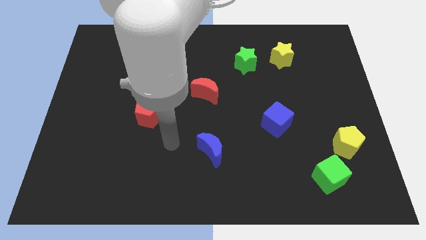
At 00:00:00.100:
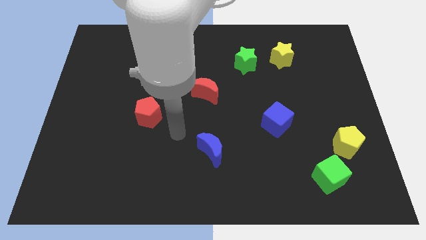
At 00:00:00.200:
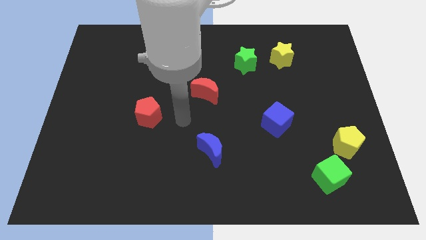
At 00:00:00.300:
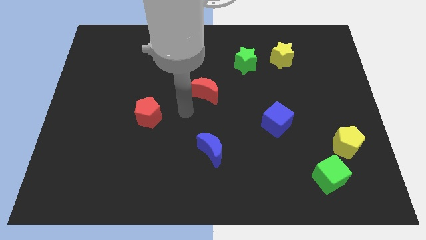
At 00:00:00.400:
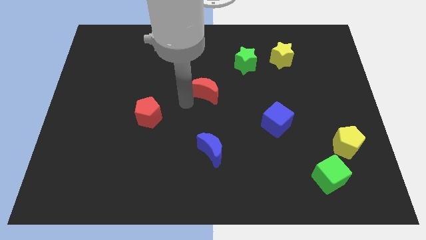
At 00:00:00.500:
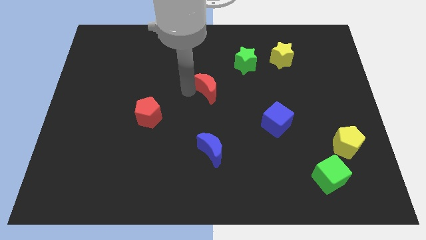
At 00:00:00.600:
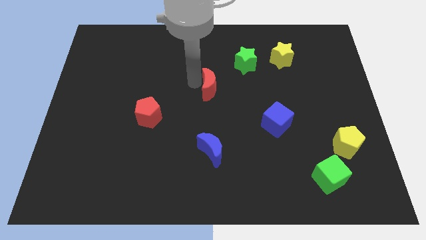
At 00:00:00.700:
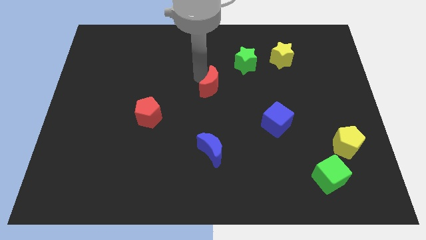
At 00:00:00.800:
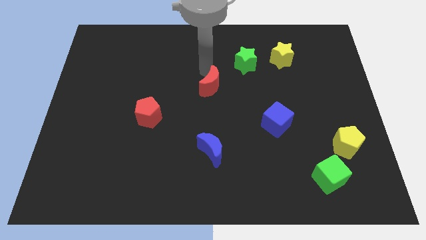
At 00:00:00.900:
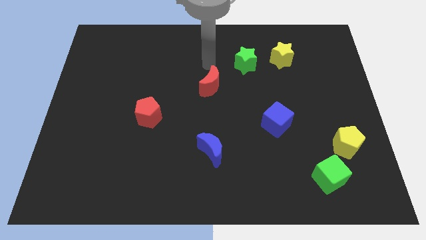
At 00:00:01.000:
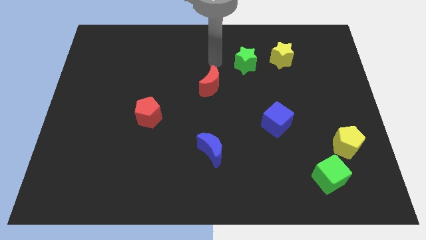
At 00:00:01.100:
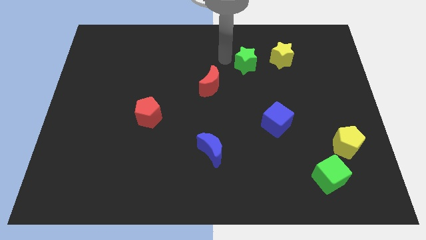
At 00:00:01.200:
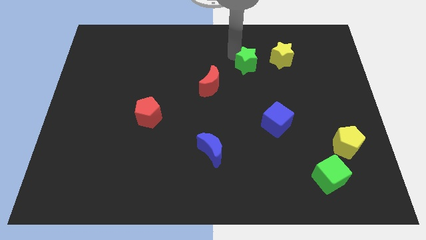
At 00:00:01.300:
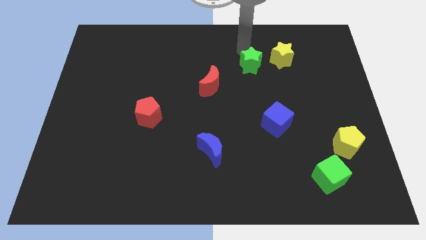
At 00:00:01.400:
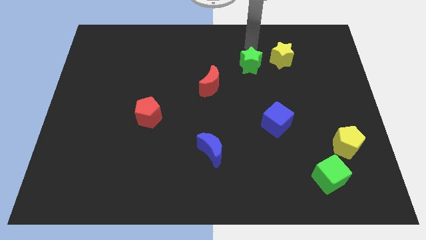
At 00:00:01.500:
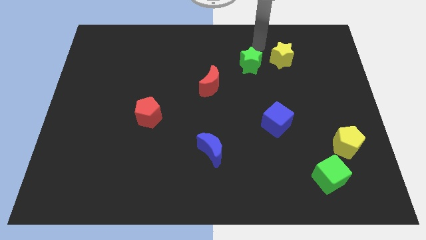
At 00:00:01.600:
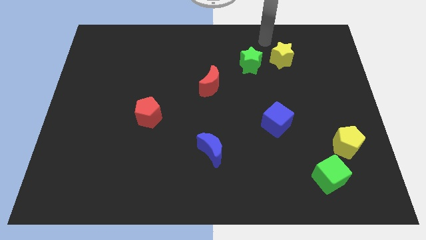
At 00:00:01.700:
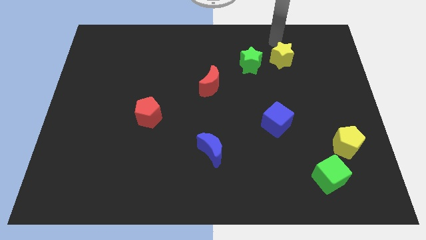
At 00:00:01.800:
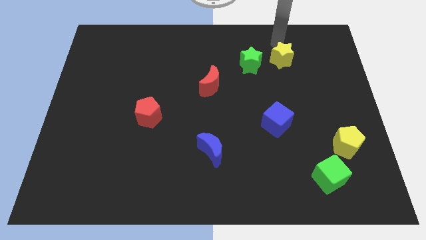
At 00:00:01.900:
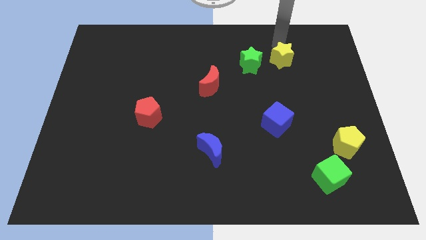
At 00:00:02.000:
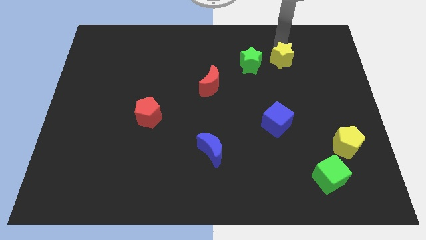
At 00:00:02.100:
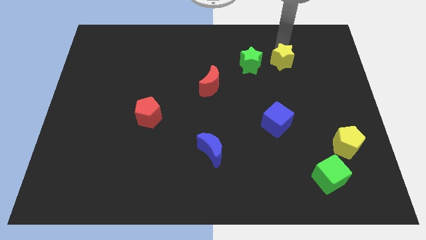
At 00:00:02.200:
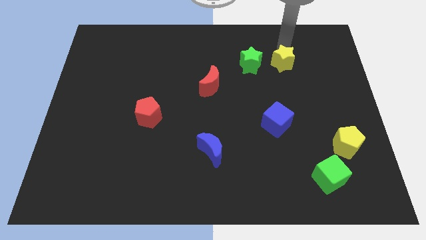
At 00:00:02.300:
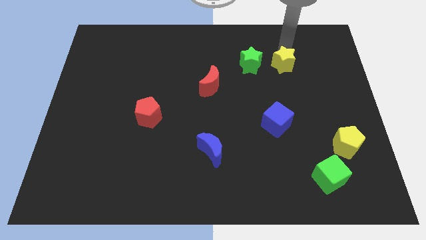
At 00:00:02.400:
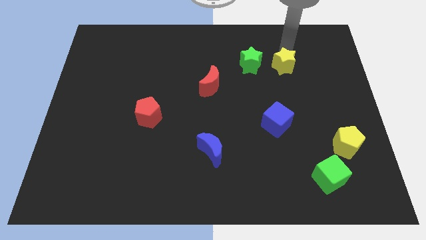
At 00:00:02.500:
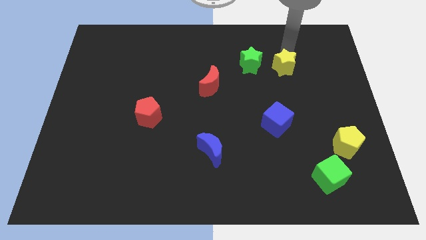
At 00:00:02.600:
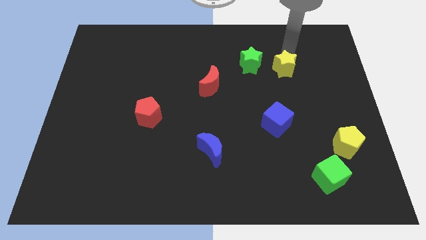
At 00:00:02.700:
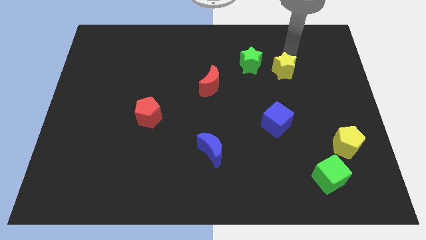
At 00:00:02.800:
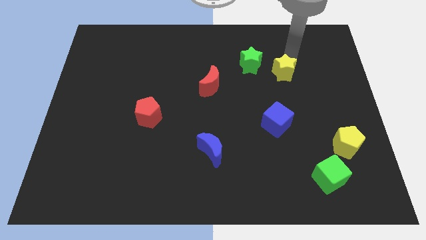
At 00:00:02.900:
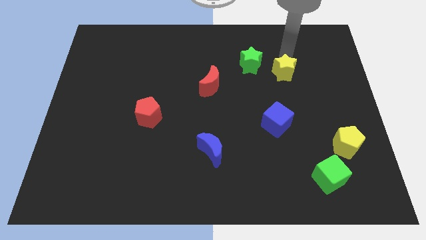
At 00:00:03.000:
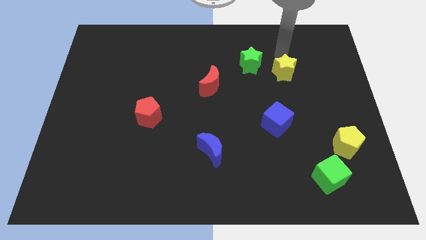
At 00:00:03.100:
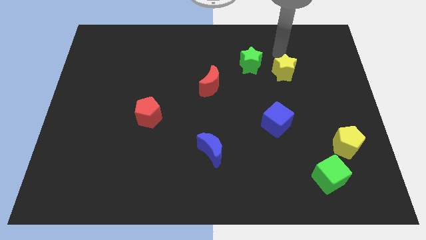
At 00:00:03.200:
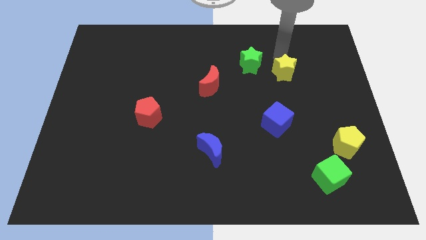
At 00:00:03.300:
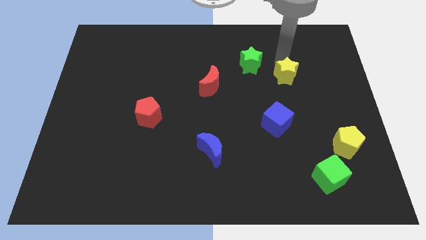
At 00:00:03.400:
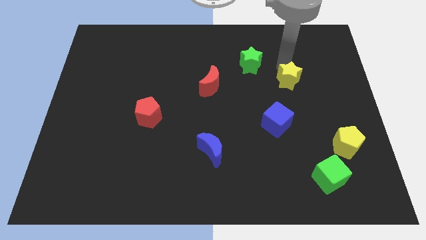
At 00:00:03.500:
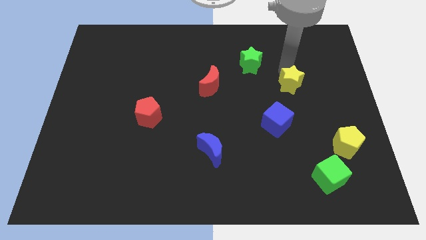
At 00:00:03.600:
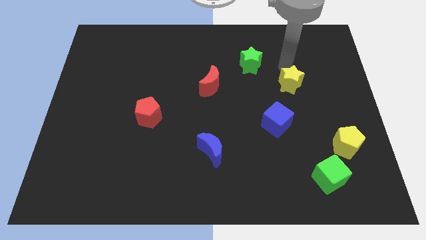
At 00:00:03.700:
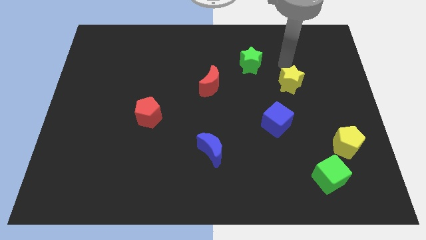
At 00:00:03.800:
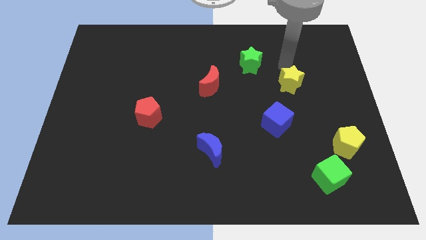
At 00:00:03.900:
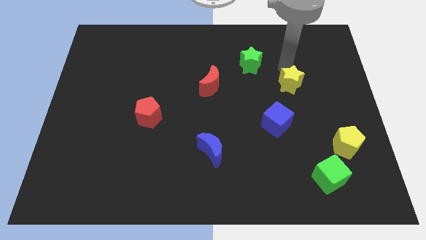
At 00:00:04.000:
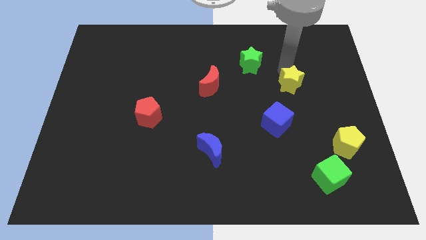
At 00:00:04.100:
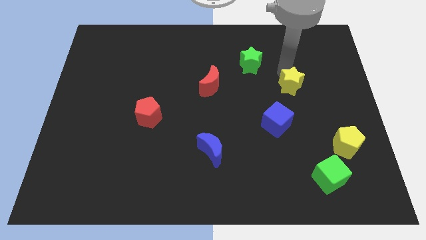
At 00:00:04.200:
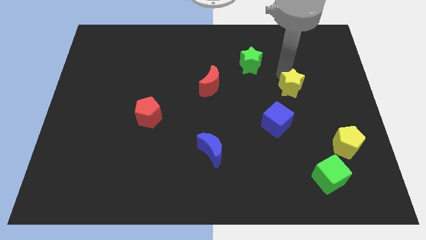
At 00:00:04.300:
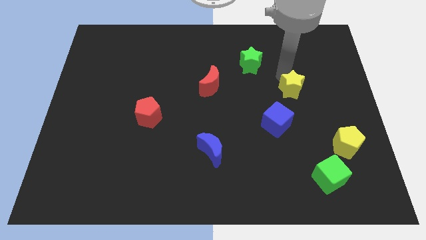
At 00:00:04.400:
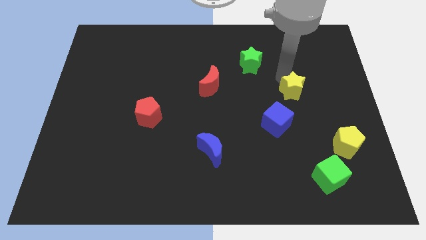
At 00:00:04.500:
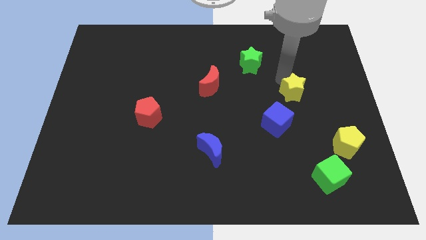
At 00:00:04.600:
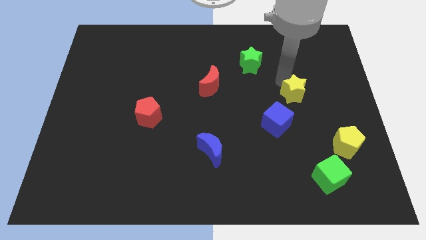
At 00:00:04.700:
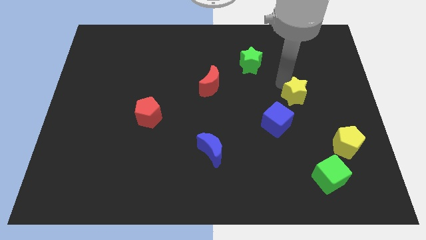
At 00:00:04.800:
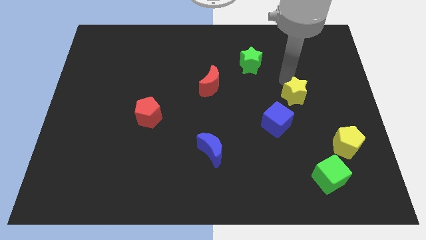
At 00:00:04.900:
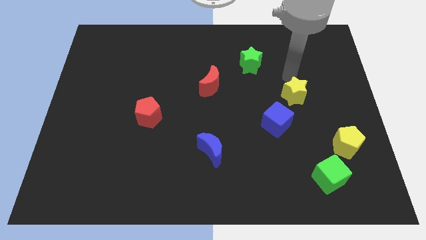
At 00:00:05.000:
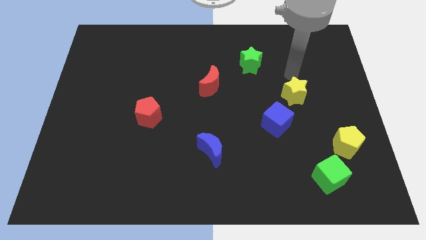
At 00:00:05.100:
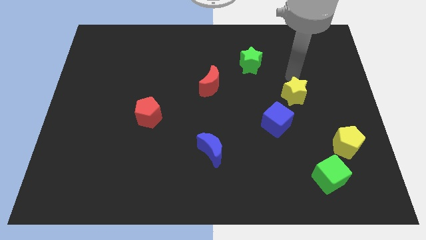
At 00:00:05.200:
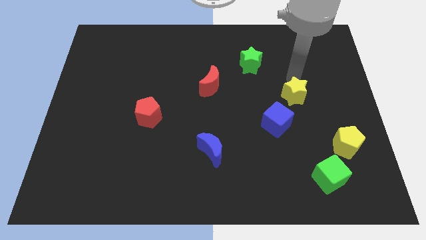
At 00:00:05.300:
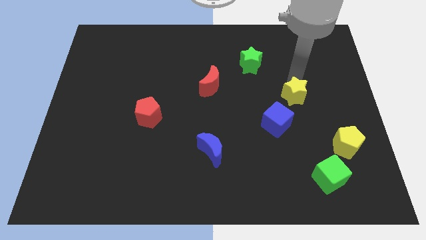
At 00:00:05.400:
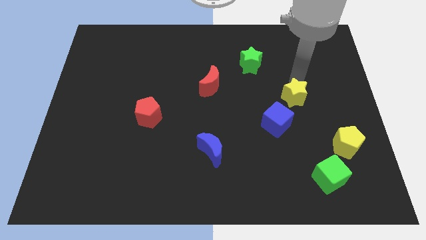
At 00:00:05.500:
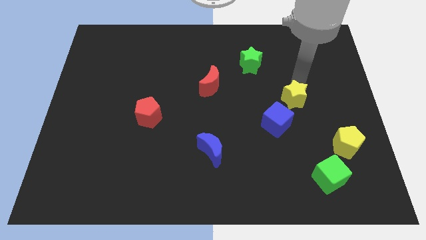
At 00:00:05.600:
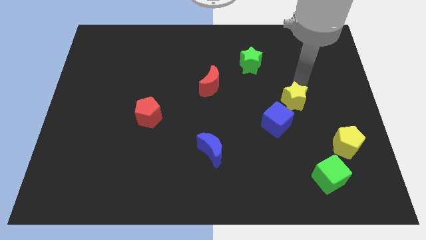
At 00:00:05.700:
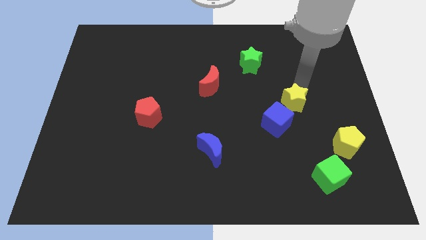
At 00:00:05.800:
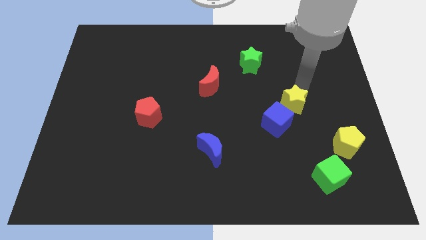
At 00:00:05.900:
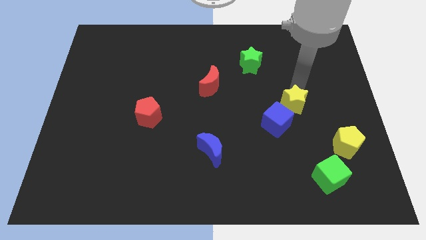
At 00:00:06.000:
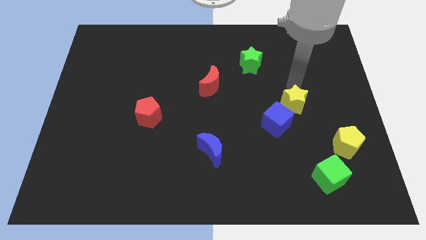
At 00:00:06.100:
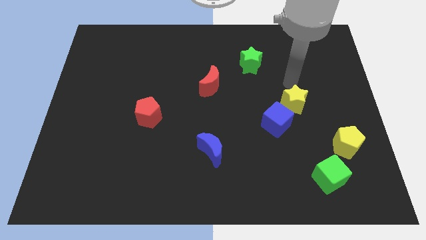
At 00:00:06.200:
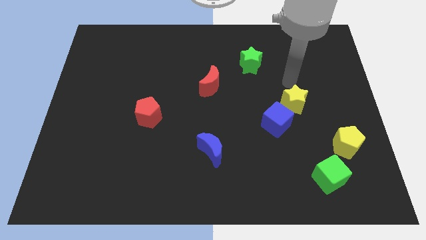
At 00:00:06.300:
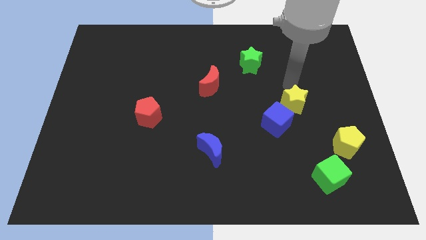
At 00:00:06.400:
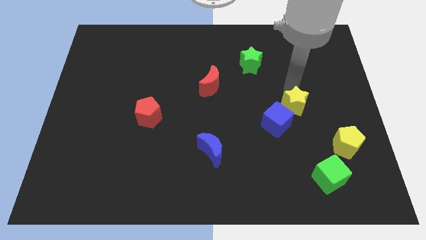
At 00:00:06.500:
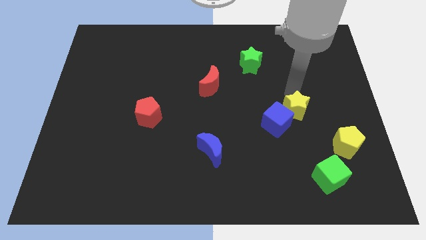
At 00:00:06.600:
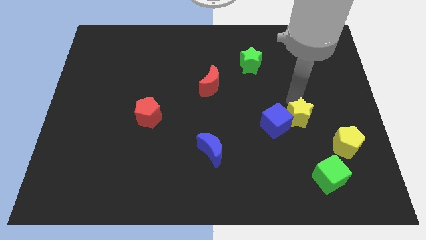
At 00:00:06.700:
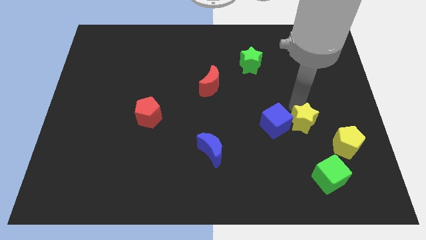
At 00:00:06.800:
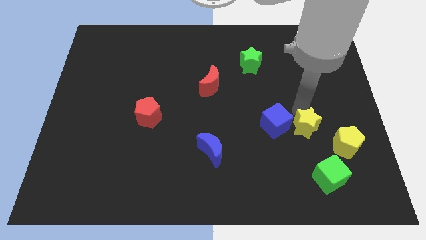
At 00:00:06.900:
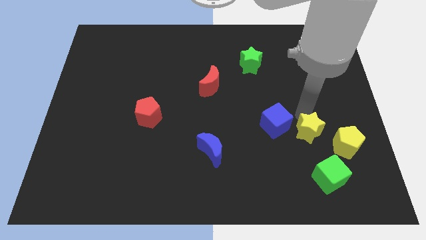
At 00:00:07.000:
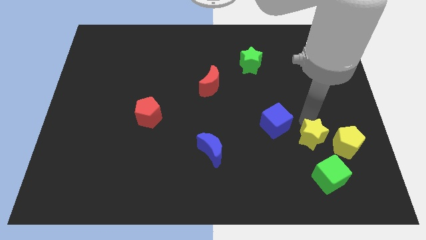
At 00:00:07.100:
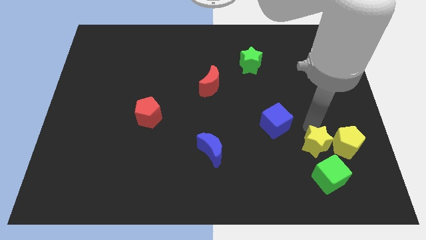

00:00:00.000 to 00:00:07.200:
move the yellow star to the top left of the green cube
